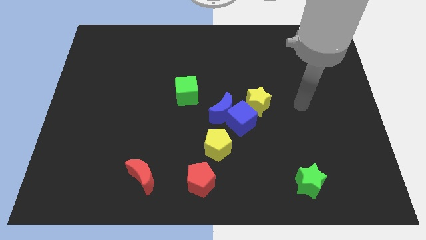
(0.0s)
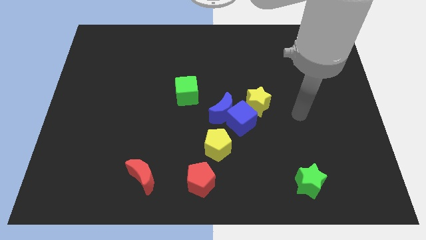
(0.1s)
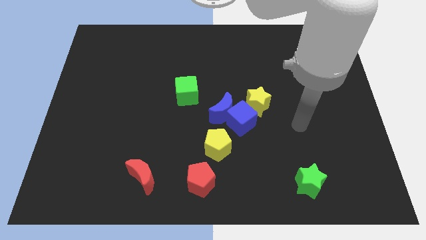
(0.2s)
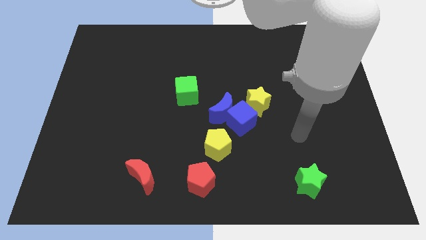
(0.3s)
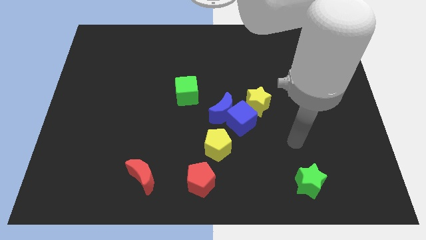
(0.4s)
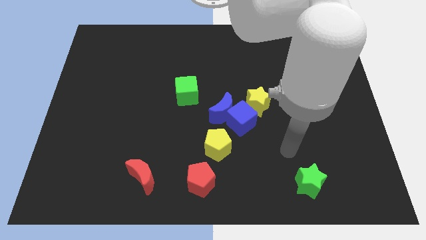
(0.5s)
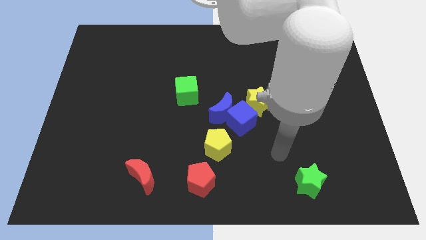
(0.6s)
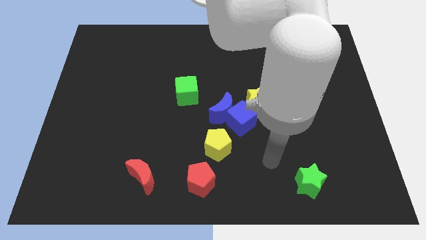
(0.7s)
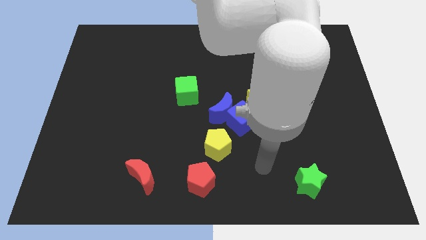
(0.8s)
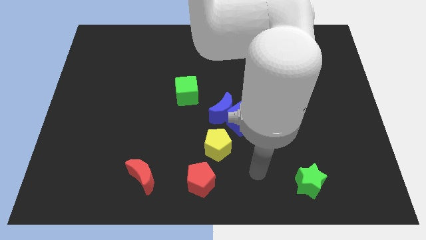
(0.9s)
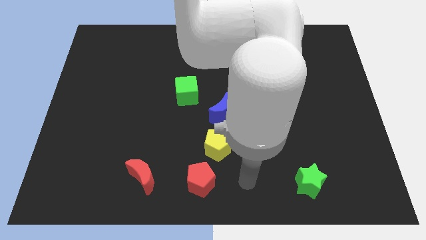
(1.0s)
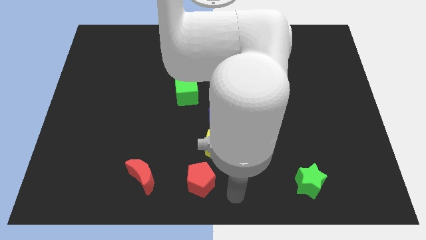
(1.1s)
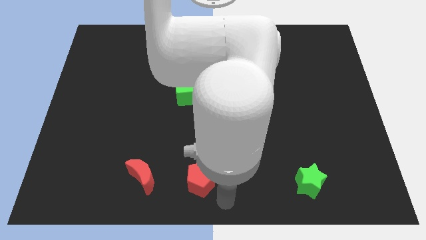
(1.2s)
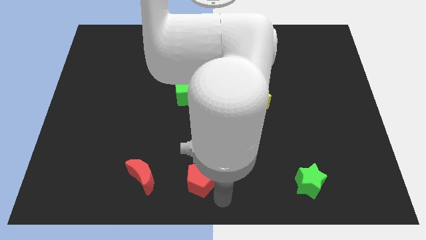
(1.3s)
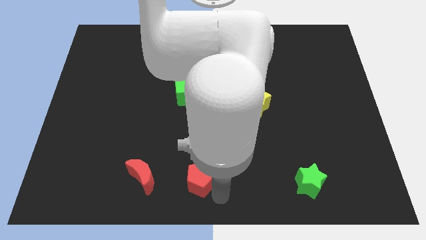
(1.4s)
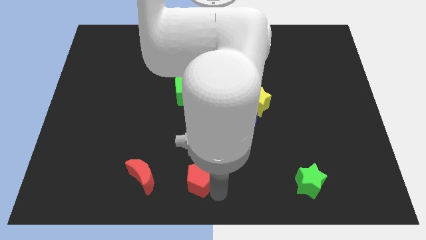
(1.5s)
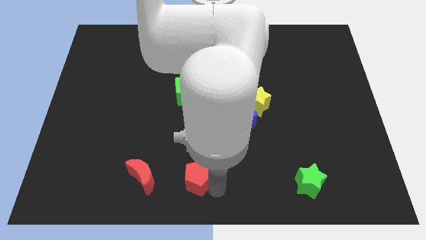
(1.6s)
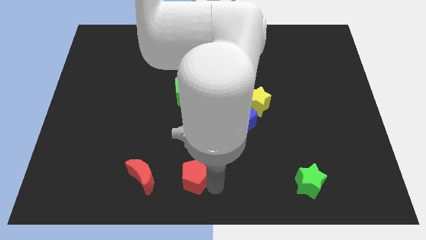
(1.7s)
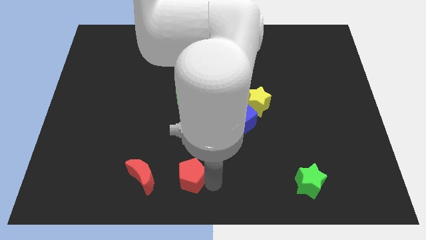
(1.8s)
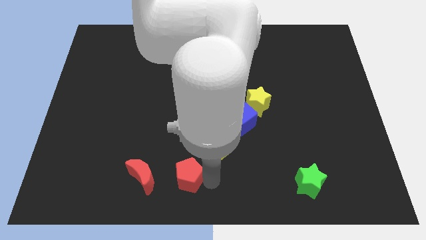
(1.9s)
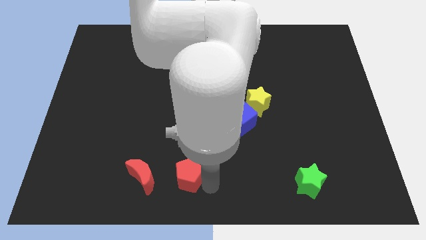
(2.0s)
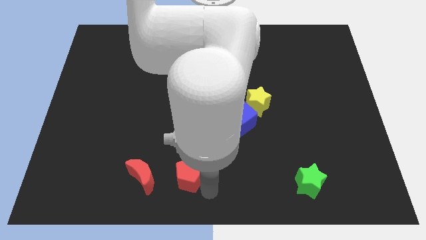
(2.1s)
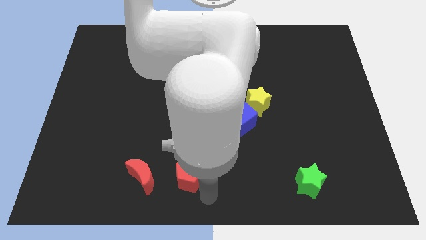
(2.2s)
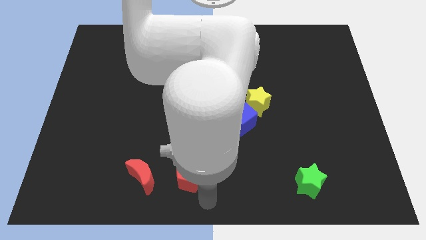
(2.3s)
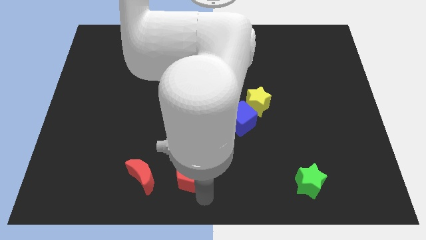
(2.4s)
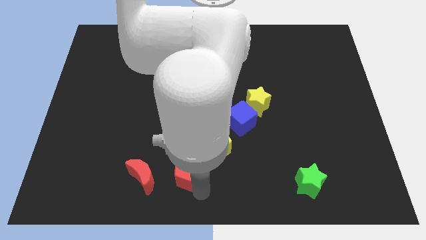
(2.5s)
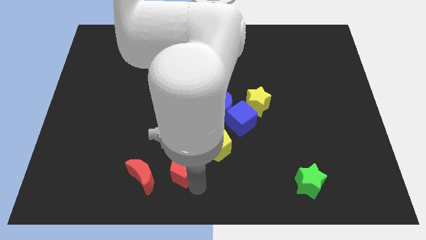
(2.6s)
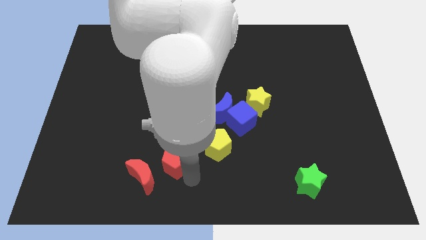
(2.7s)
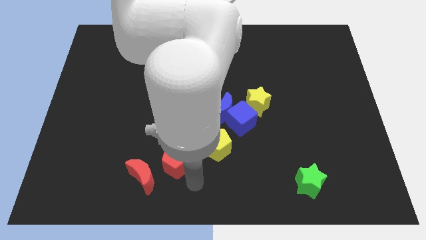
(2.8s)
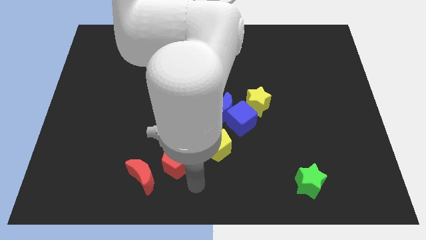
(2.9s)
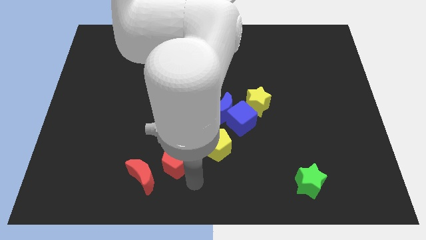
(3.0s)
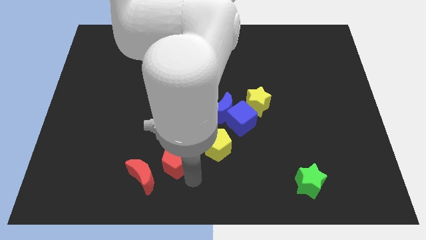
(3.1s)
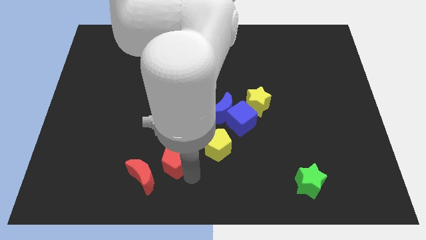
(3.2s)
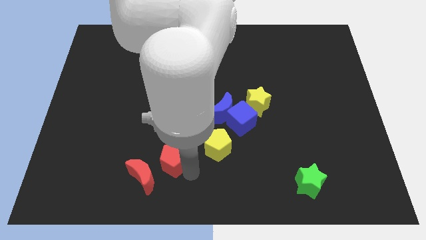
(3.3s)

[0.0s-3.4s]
slightly slide the red pentagon upwards and left

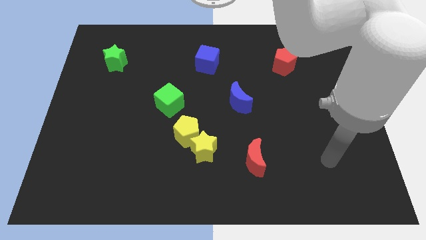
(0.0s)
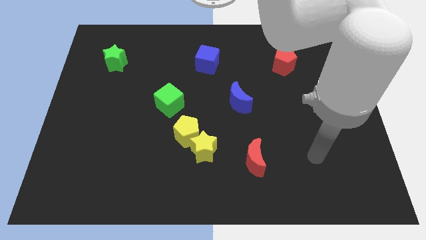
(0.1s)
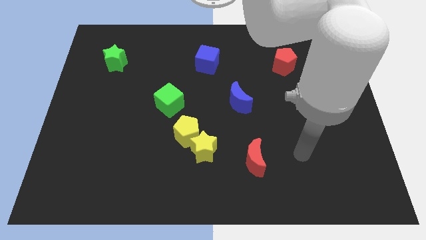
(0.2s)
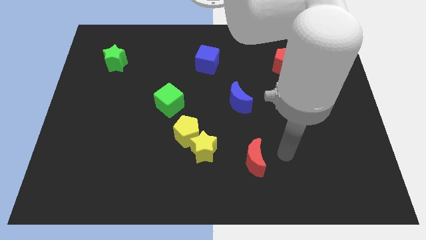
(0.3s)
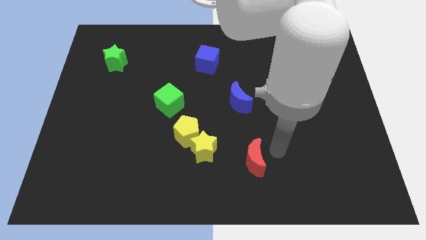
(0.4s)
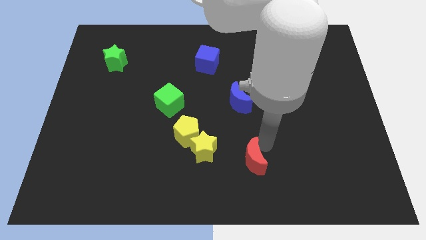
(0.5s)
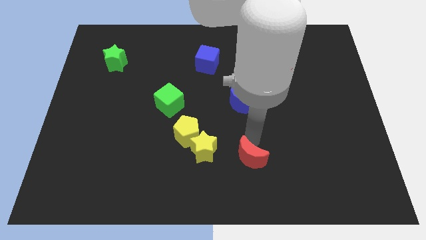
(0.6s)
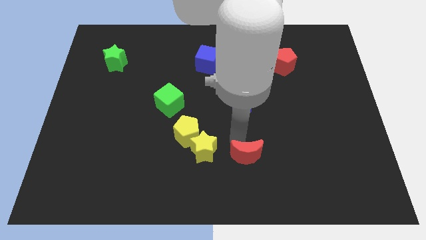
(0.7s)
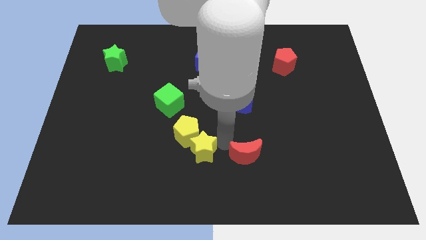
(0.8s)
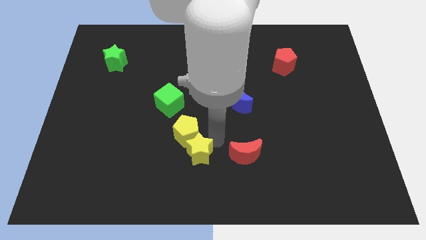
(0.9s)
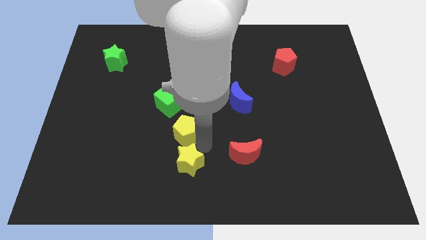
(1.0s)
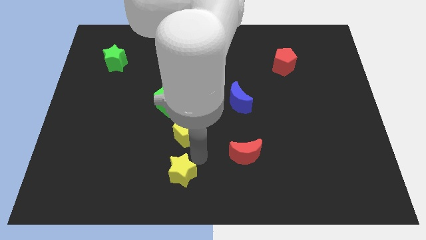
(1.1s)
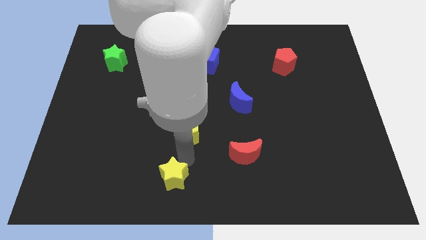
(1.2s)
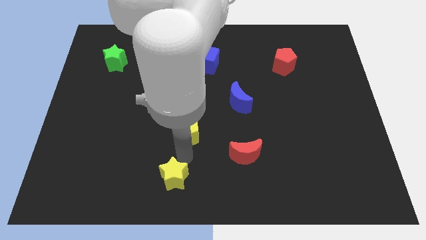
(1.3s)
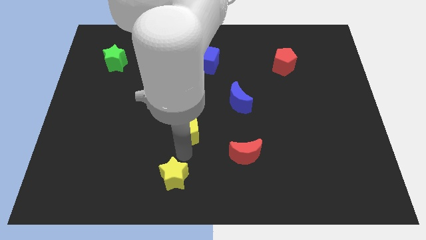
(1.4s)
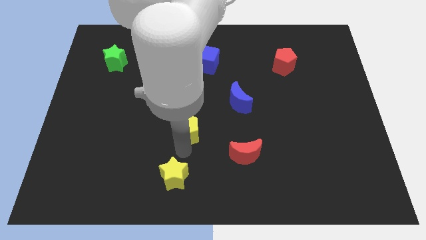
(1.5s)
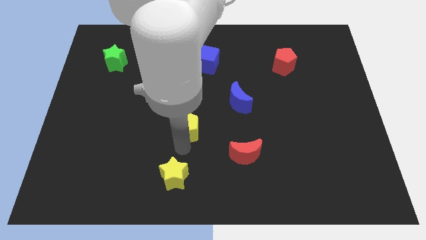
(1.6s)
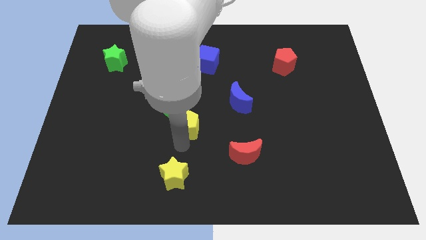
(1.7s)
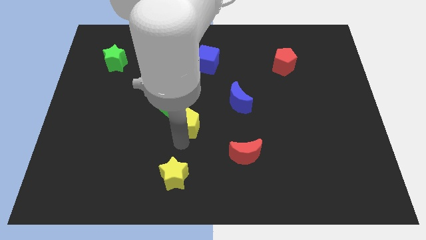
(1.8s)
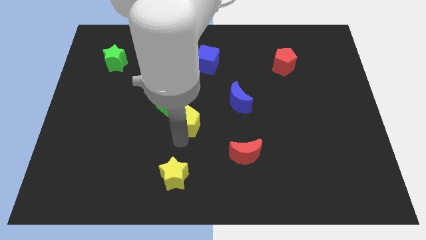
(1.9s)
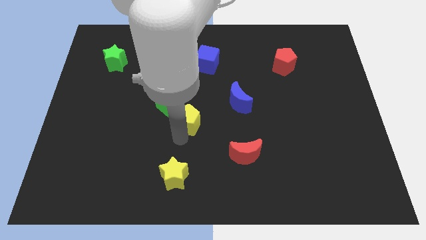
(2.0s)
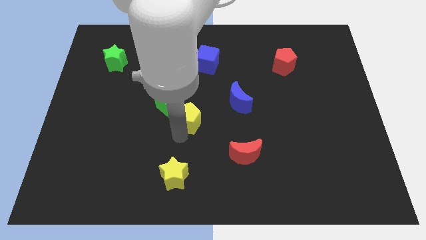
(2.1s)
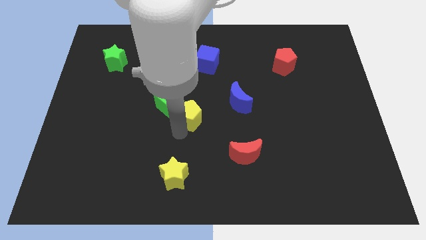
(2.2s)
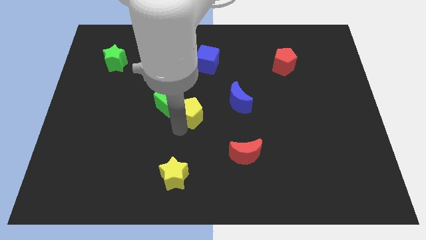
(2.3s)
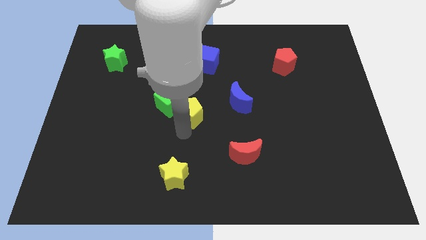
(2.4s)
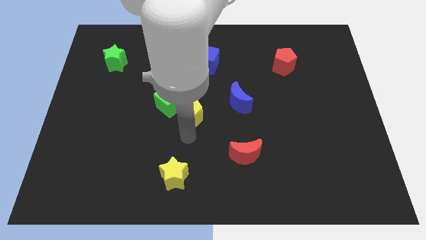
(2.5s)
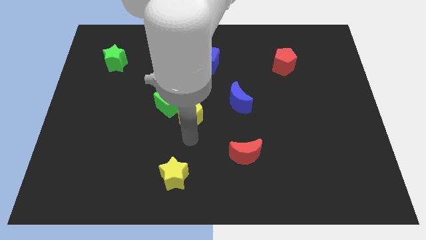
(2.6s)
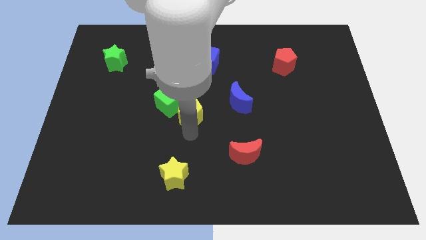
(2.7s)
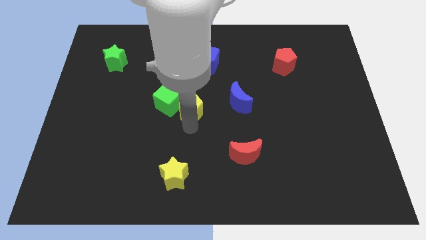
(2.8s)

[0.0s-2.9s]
push the yellow pentagon up slightly

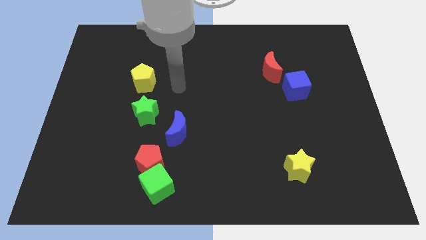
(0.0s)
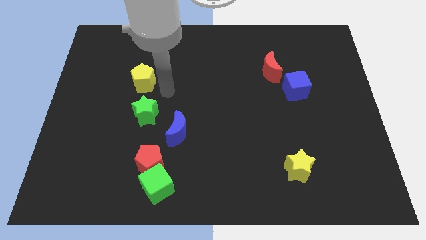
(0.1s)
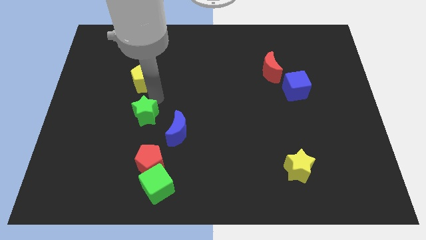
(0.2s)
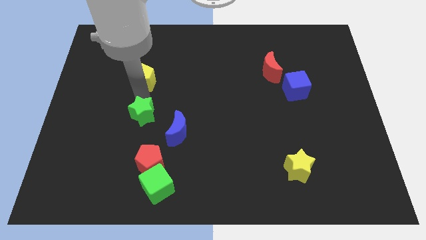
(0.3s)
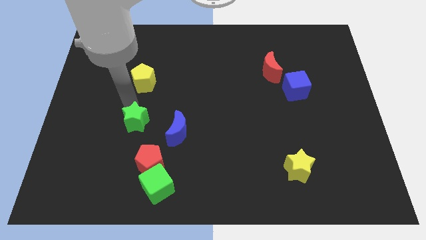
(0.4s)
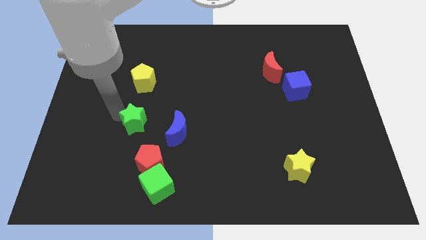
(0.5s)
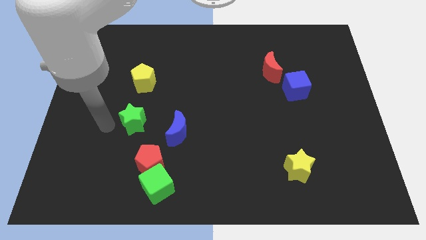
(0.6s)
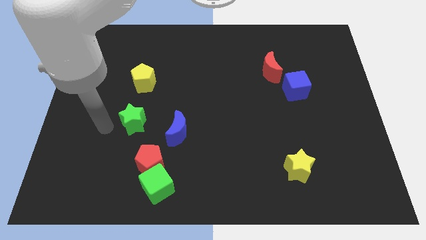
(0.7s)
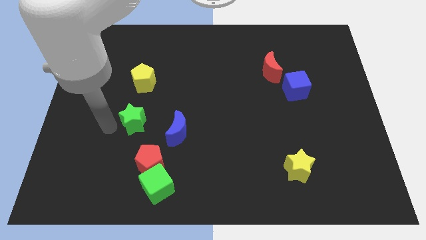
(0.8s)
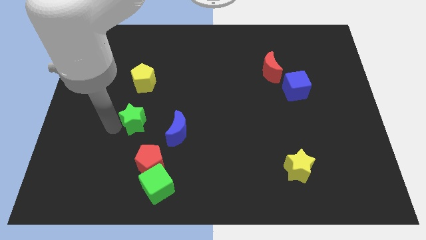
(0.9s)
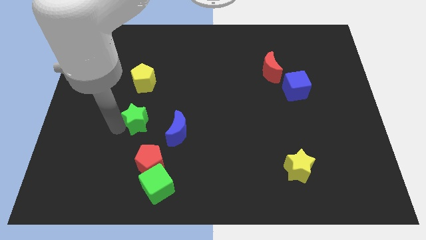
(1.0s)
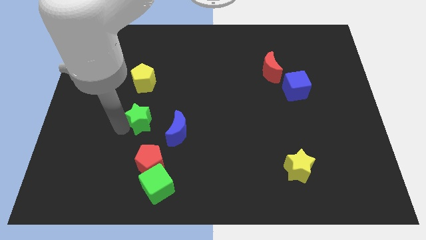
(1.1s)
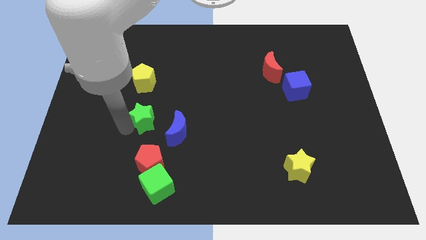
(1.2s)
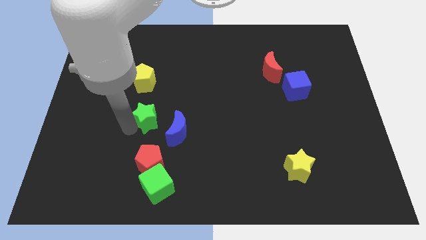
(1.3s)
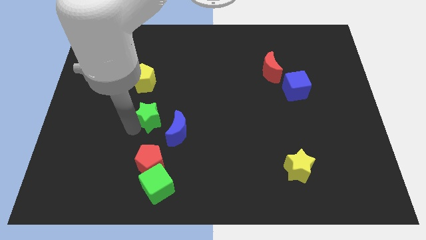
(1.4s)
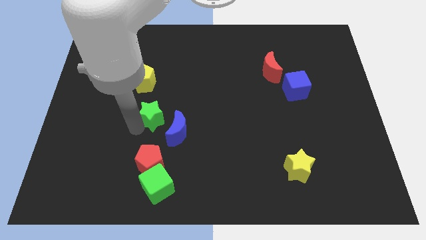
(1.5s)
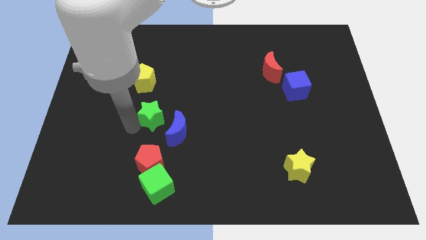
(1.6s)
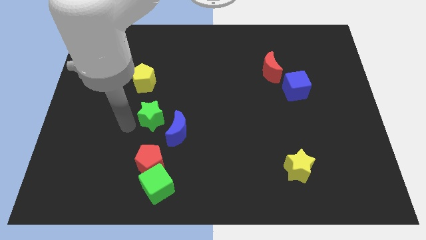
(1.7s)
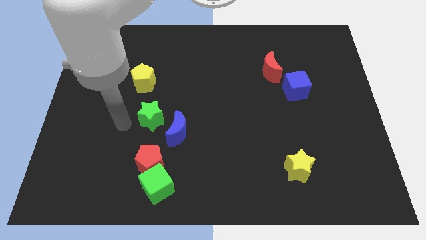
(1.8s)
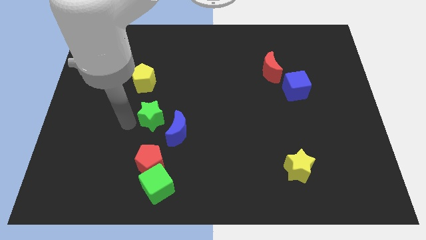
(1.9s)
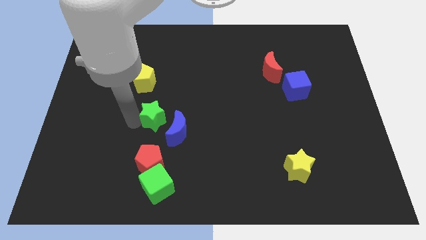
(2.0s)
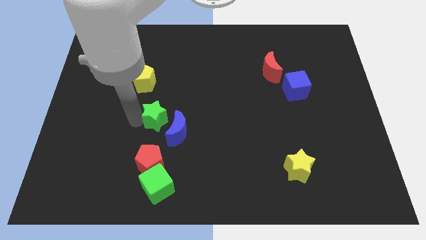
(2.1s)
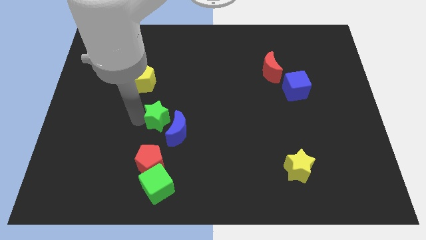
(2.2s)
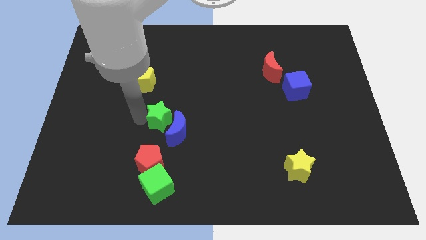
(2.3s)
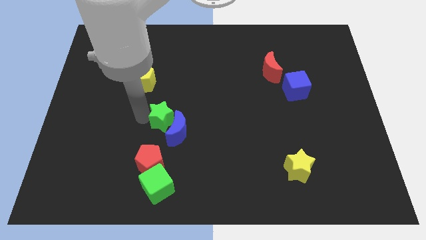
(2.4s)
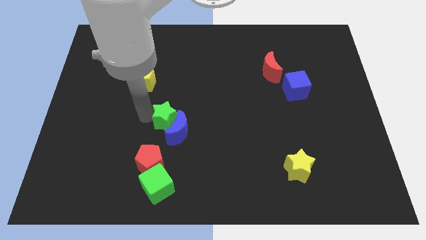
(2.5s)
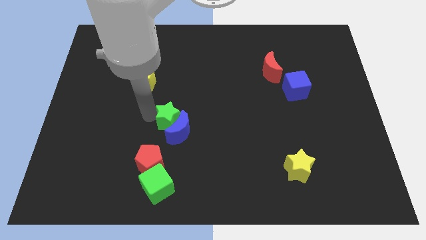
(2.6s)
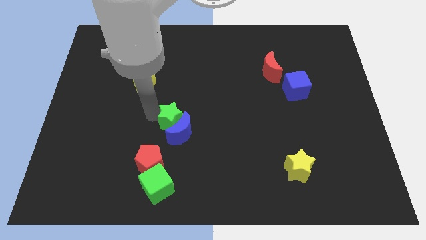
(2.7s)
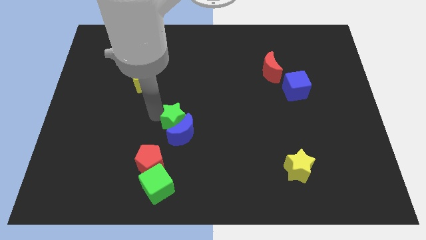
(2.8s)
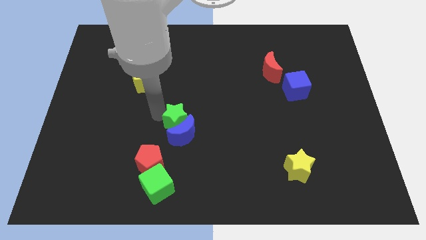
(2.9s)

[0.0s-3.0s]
slide the green star somewhat right
